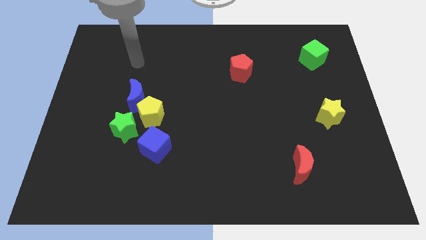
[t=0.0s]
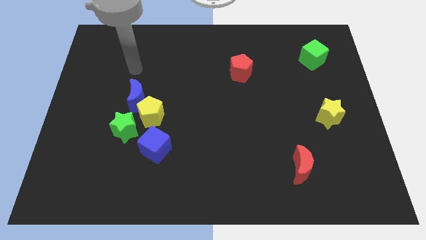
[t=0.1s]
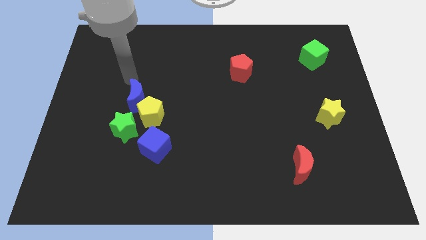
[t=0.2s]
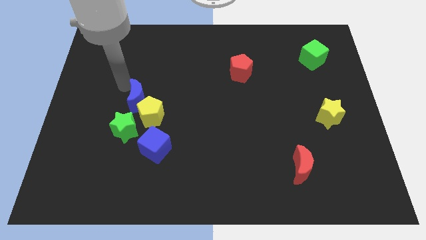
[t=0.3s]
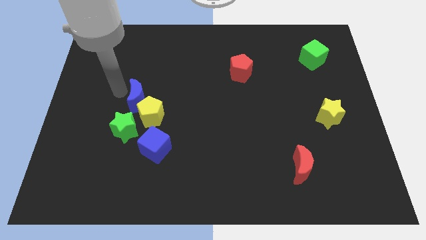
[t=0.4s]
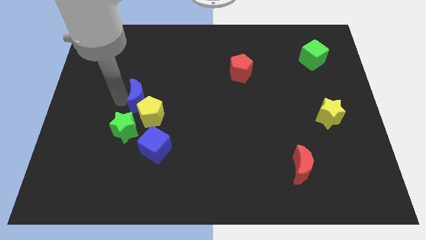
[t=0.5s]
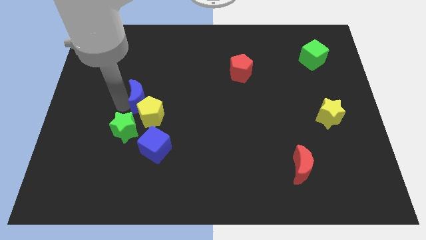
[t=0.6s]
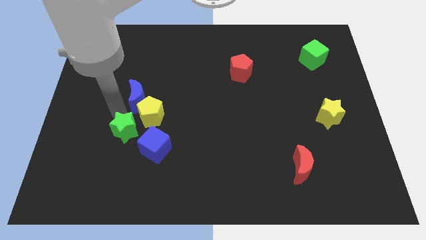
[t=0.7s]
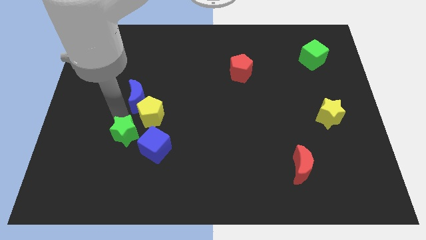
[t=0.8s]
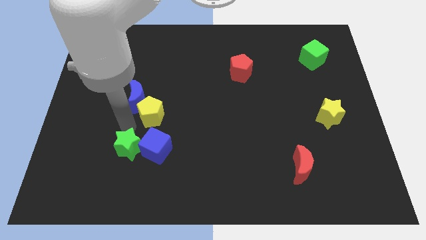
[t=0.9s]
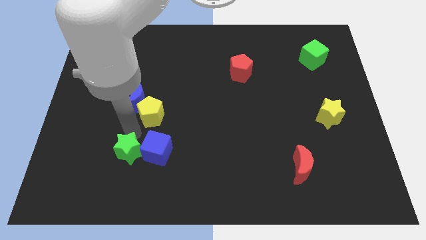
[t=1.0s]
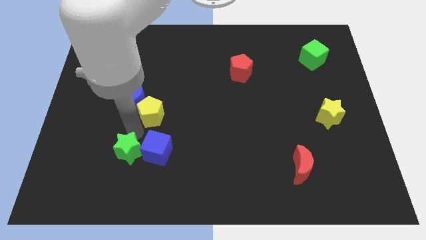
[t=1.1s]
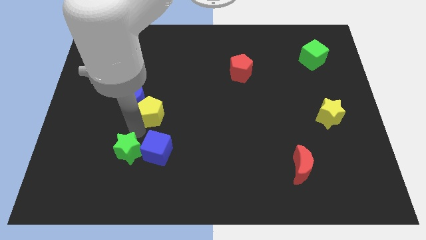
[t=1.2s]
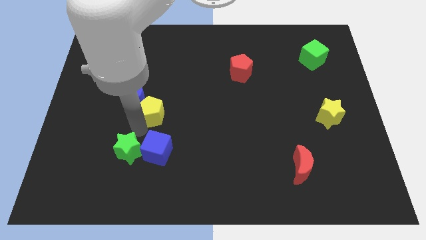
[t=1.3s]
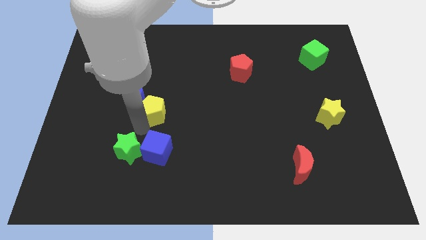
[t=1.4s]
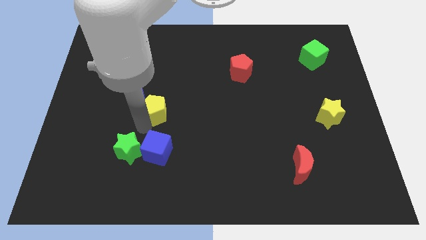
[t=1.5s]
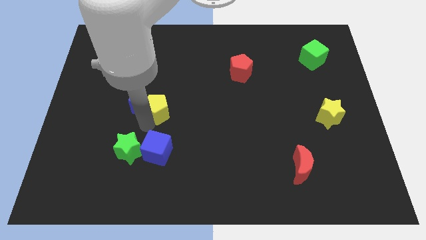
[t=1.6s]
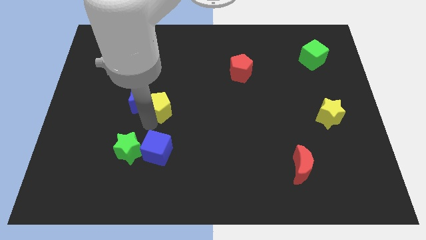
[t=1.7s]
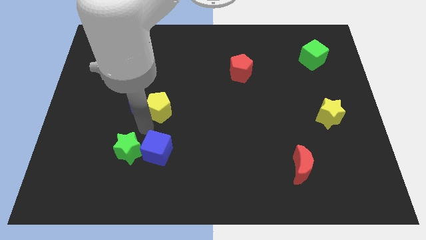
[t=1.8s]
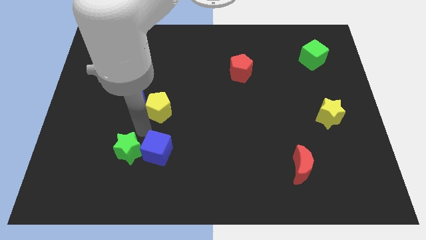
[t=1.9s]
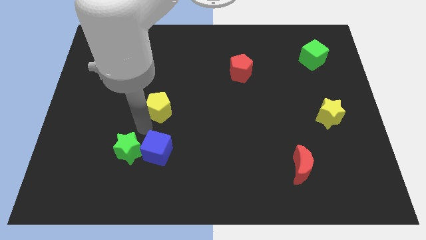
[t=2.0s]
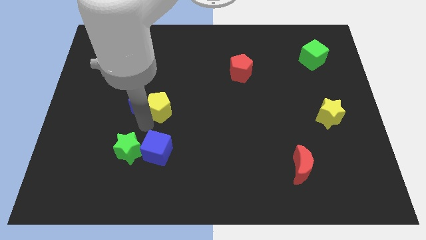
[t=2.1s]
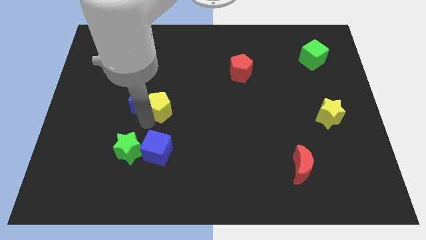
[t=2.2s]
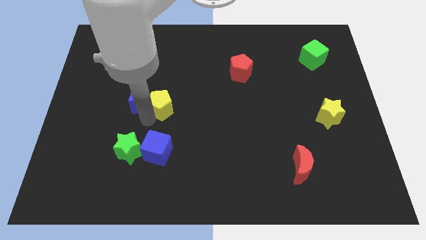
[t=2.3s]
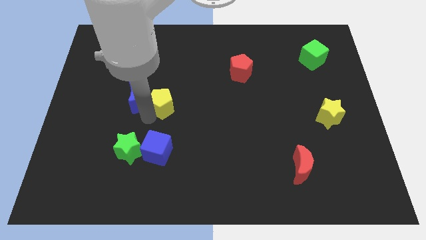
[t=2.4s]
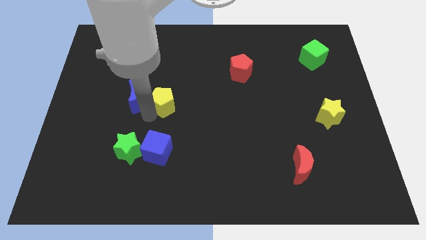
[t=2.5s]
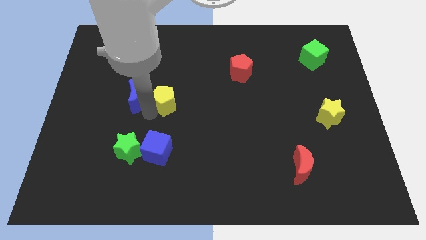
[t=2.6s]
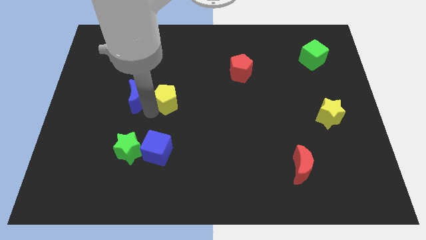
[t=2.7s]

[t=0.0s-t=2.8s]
move the yellow pentagon away from the clump

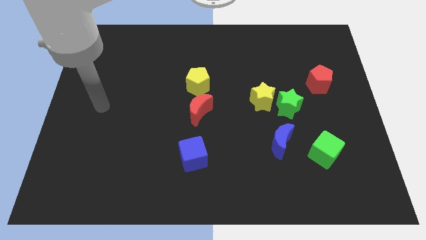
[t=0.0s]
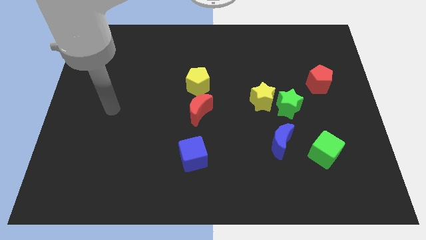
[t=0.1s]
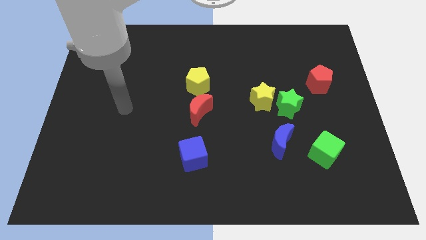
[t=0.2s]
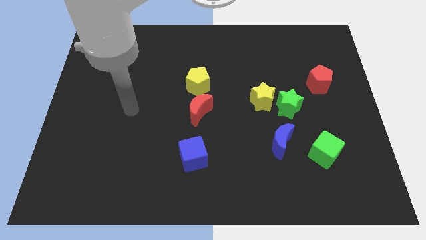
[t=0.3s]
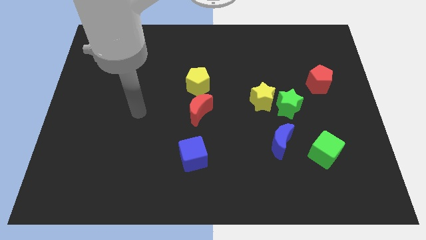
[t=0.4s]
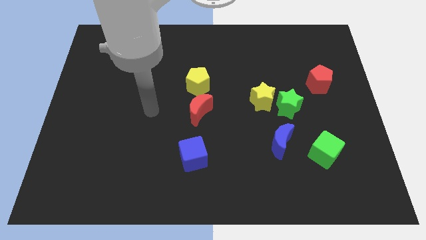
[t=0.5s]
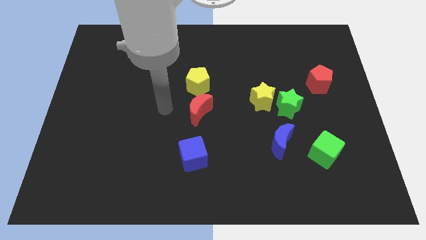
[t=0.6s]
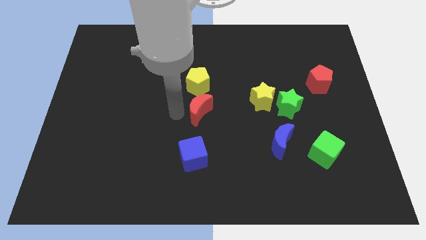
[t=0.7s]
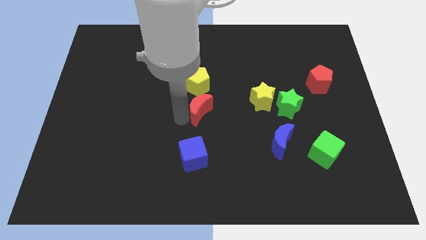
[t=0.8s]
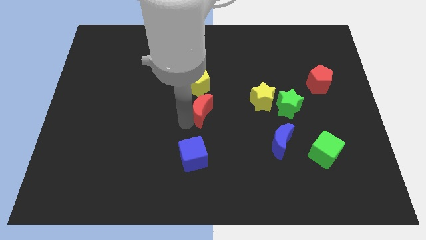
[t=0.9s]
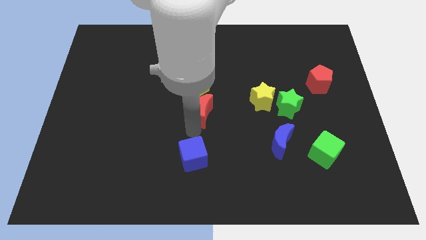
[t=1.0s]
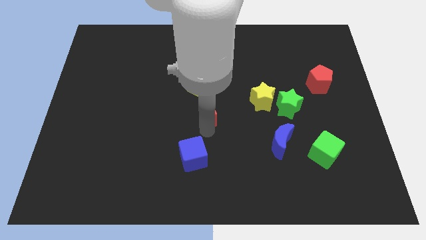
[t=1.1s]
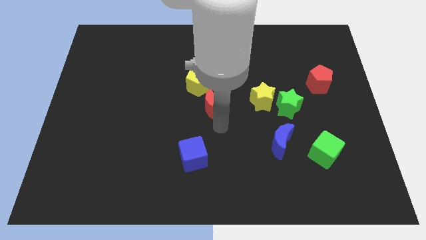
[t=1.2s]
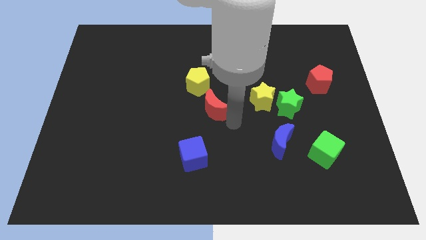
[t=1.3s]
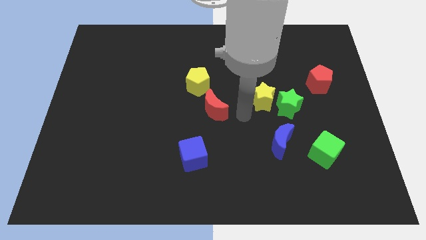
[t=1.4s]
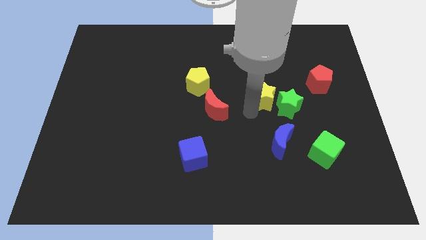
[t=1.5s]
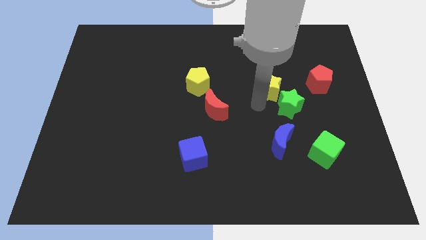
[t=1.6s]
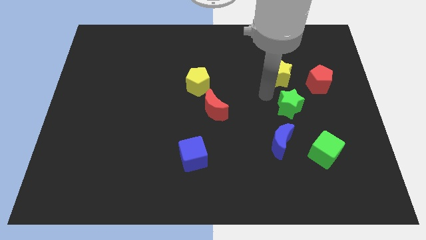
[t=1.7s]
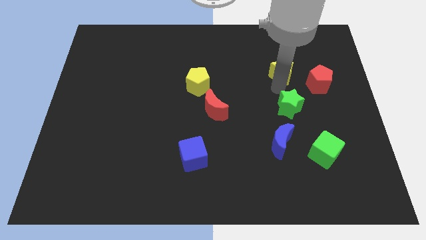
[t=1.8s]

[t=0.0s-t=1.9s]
move the green star away from the yellow star

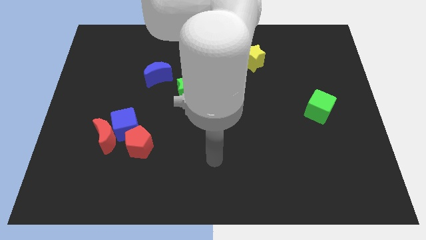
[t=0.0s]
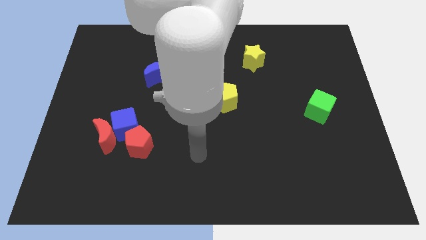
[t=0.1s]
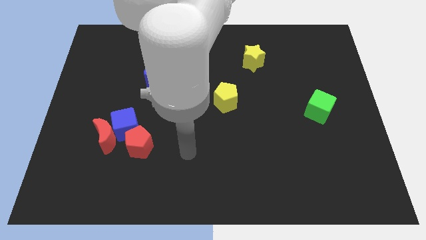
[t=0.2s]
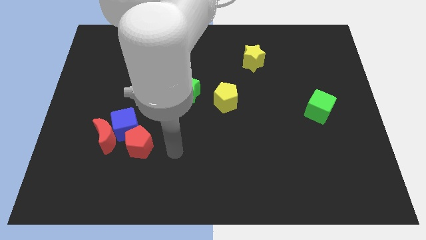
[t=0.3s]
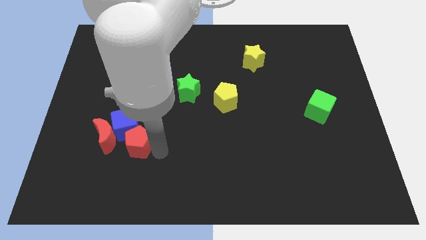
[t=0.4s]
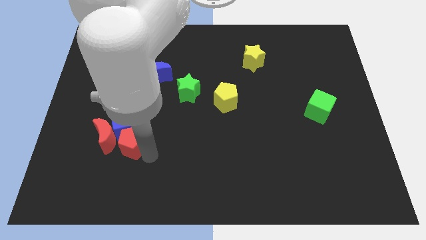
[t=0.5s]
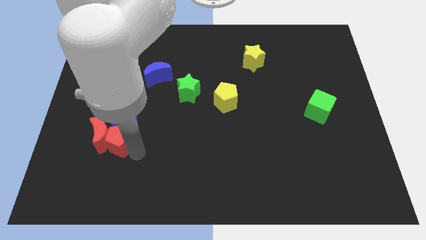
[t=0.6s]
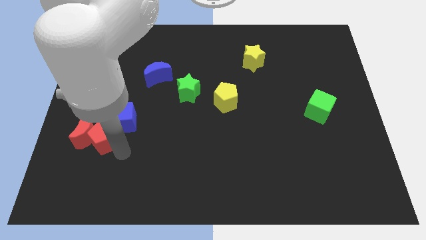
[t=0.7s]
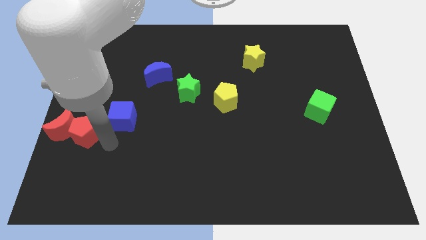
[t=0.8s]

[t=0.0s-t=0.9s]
separate the blue cube from the red moon and red pentagon

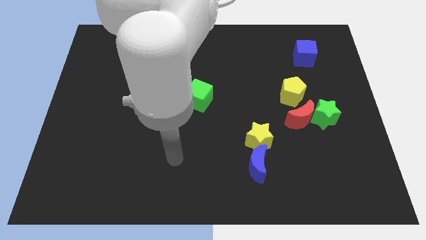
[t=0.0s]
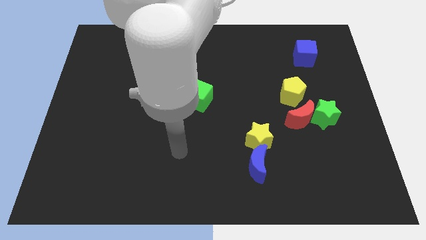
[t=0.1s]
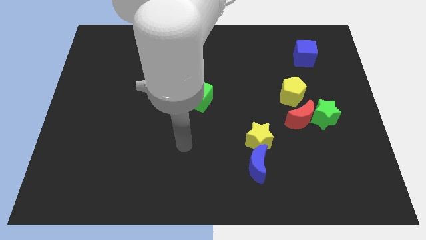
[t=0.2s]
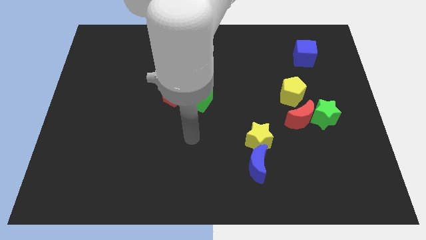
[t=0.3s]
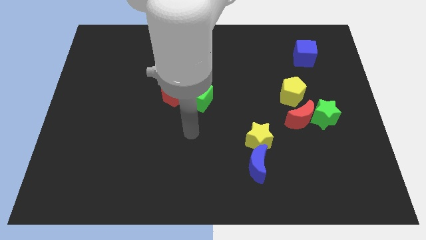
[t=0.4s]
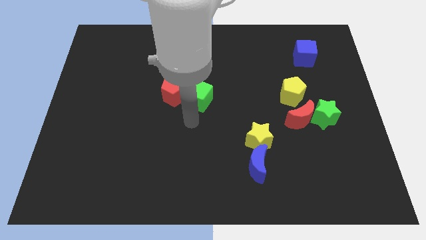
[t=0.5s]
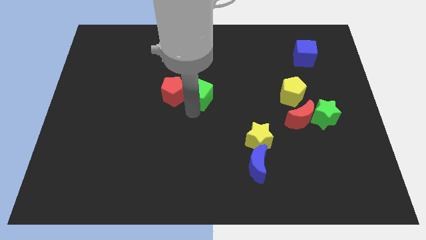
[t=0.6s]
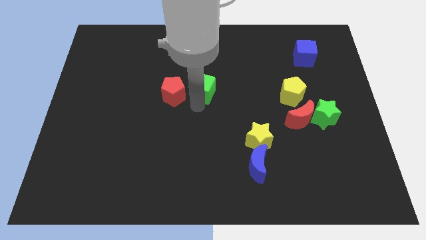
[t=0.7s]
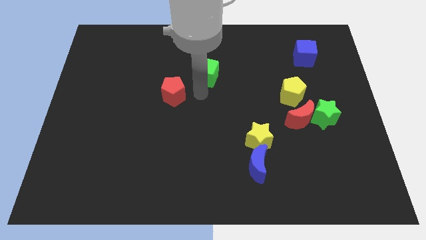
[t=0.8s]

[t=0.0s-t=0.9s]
move the red pentagon away from the green cube

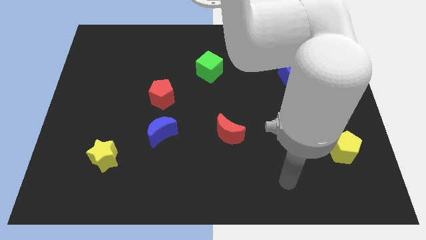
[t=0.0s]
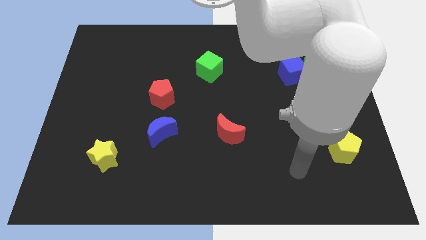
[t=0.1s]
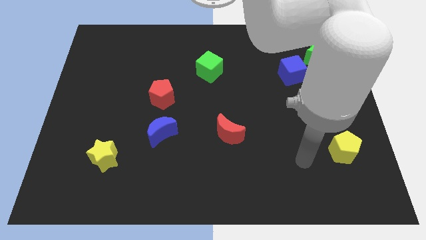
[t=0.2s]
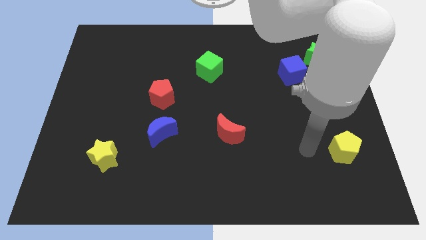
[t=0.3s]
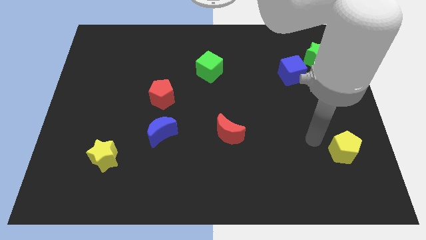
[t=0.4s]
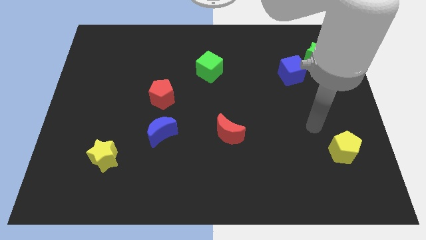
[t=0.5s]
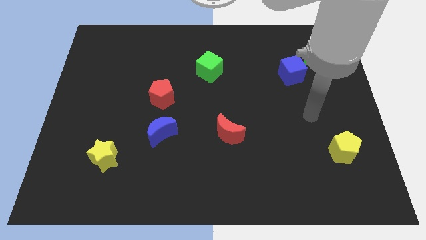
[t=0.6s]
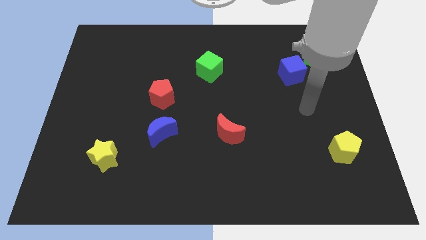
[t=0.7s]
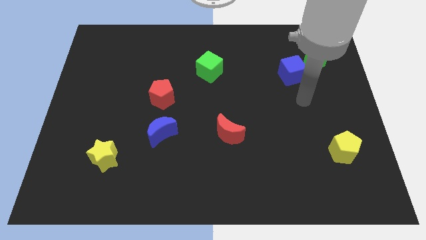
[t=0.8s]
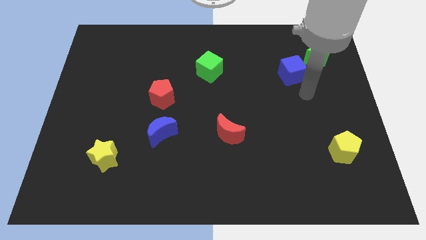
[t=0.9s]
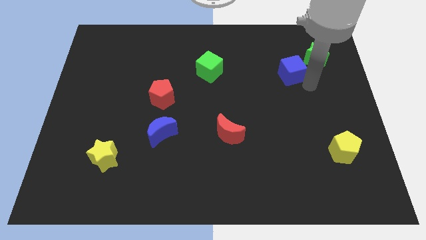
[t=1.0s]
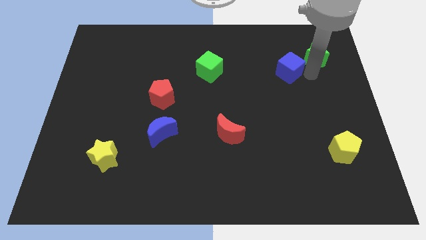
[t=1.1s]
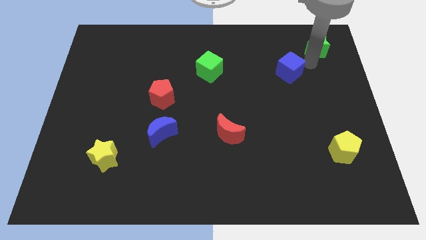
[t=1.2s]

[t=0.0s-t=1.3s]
pull the blue cube apart from the green star

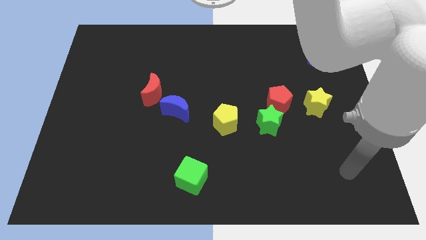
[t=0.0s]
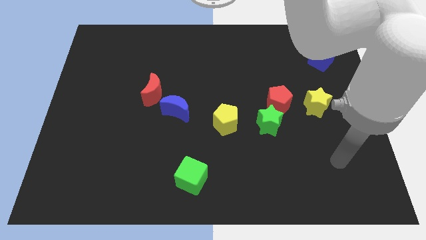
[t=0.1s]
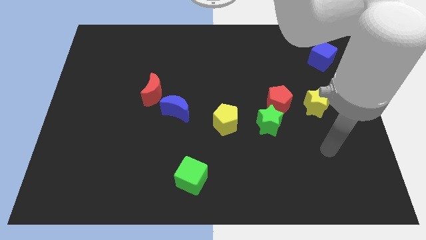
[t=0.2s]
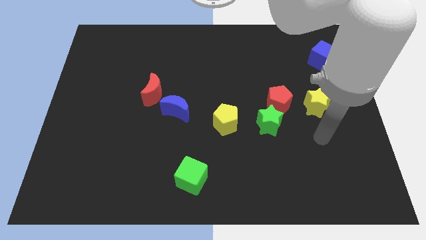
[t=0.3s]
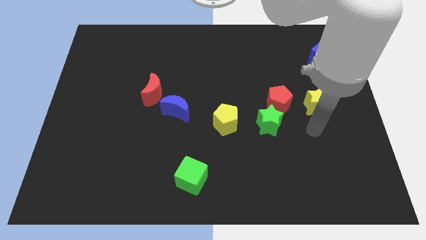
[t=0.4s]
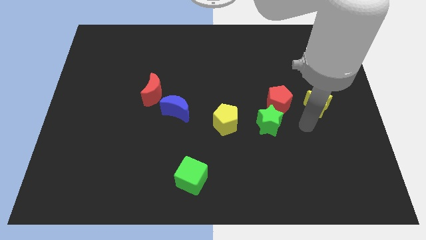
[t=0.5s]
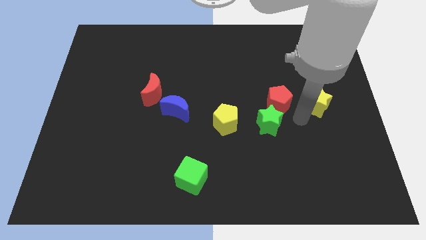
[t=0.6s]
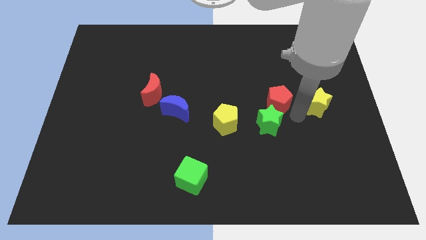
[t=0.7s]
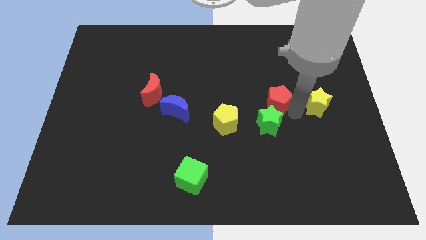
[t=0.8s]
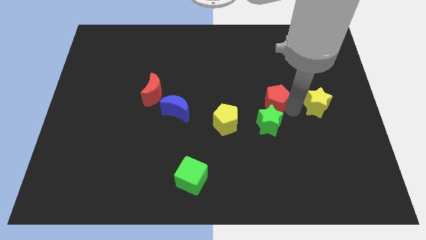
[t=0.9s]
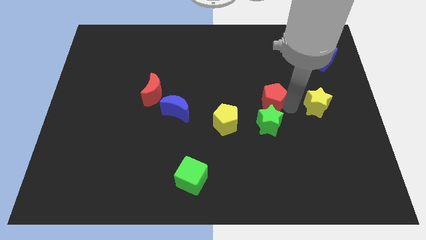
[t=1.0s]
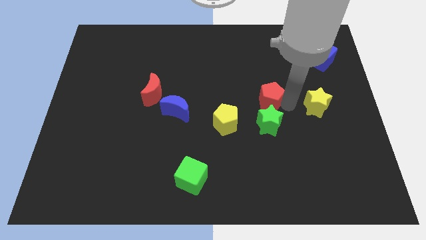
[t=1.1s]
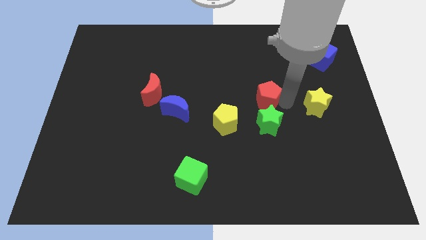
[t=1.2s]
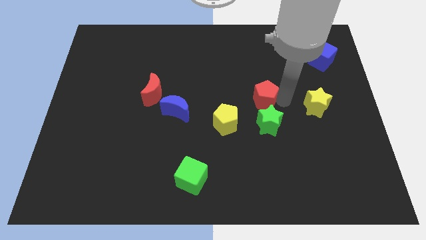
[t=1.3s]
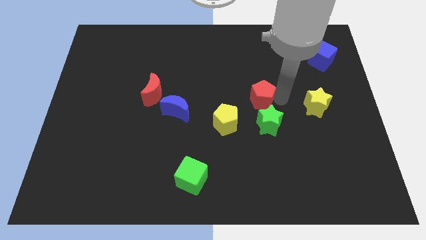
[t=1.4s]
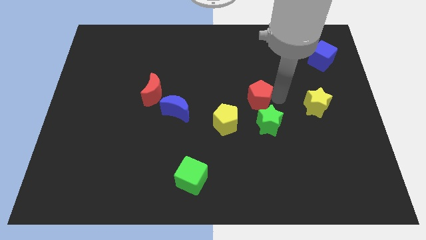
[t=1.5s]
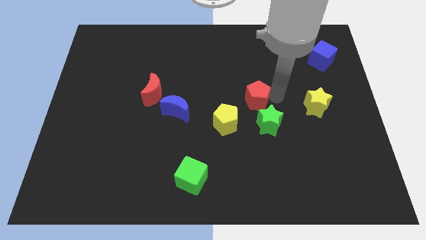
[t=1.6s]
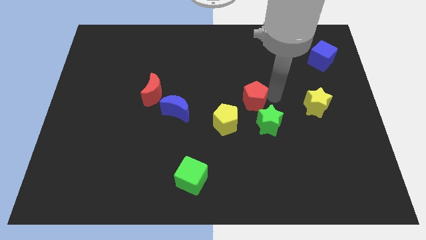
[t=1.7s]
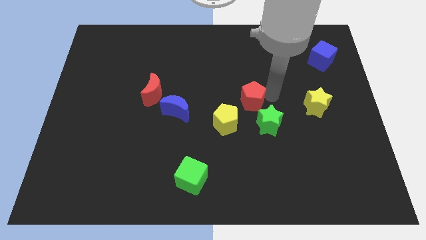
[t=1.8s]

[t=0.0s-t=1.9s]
move the red pentagon away from the green star and yellow star
